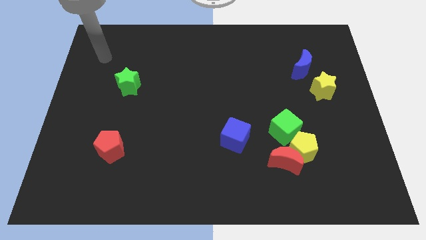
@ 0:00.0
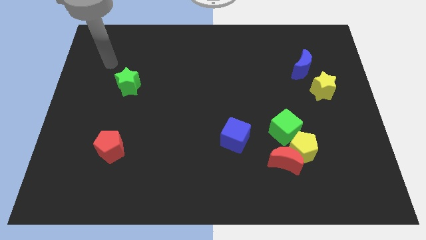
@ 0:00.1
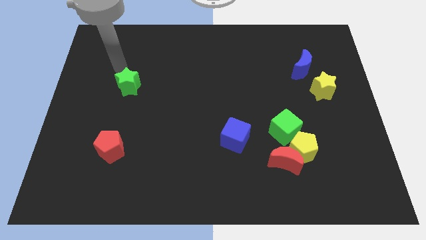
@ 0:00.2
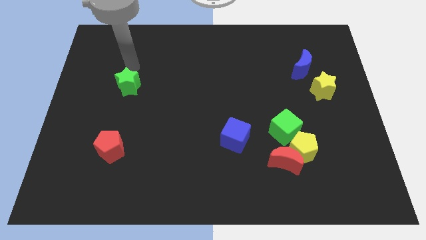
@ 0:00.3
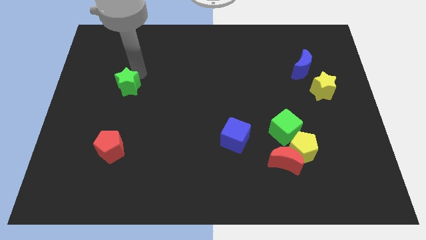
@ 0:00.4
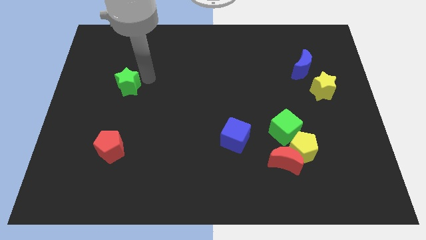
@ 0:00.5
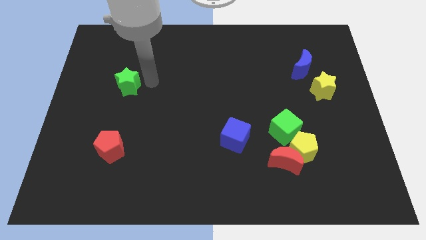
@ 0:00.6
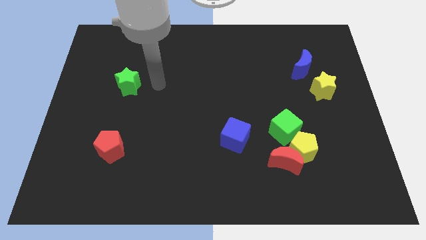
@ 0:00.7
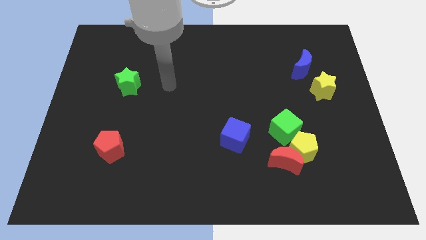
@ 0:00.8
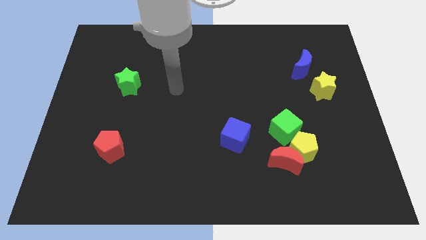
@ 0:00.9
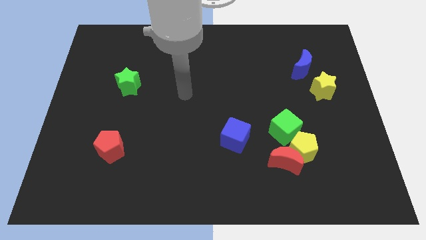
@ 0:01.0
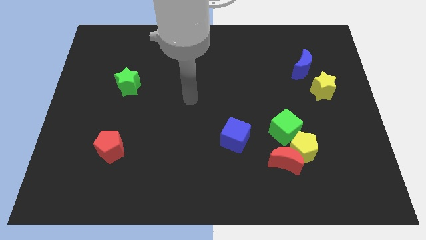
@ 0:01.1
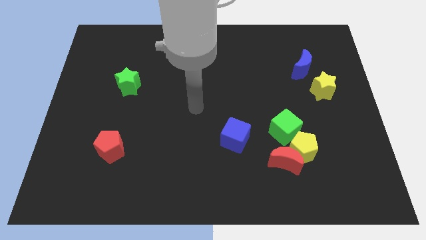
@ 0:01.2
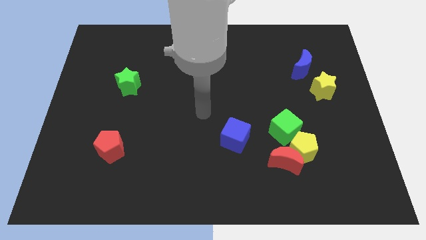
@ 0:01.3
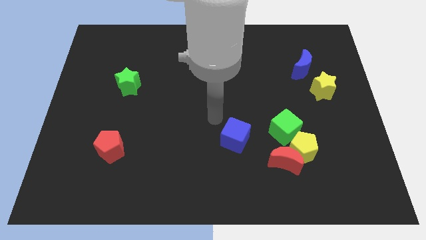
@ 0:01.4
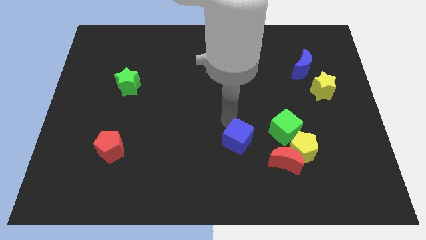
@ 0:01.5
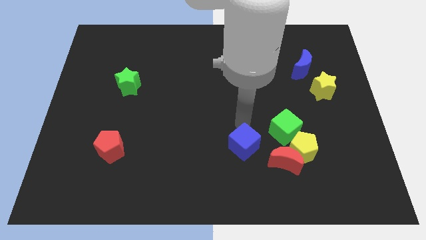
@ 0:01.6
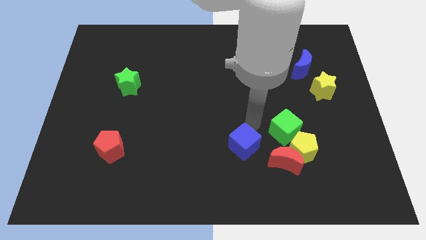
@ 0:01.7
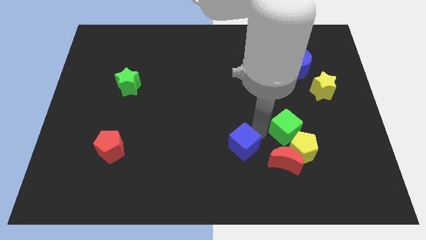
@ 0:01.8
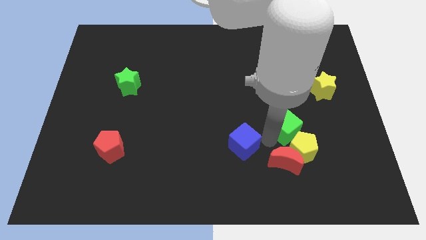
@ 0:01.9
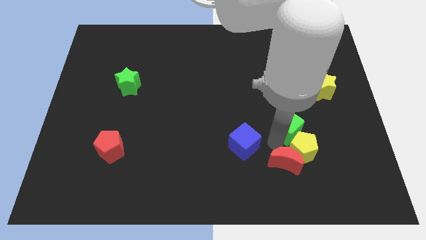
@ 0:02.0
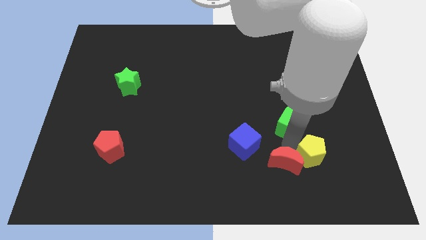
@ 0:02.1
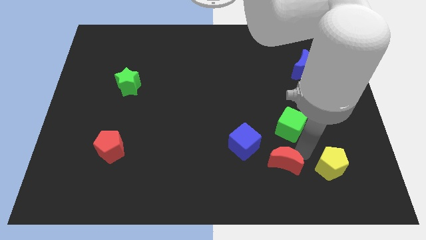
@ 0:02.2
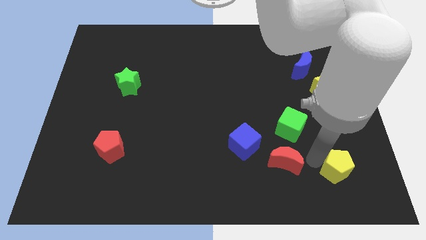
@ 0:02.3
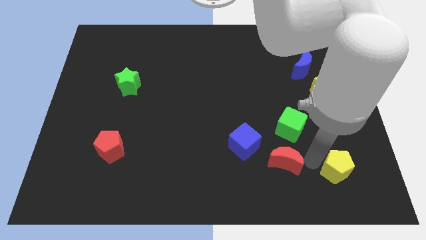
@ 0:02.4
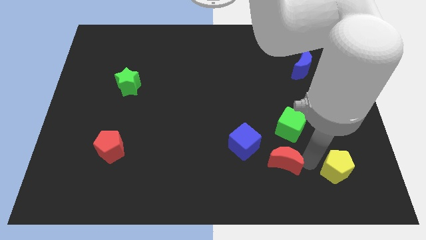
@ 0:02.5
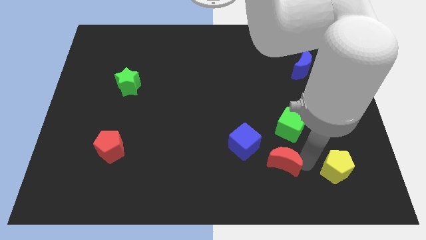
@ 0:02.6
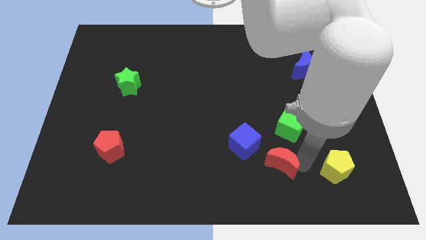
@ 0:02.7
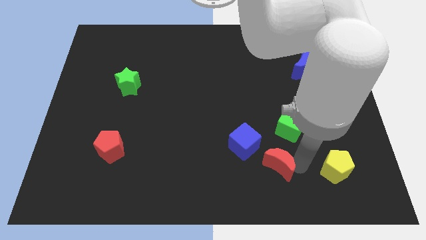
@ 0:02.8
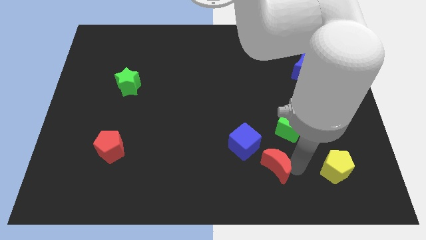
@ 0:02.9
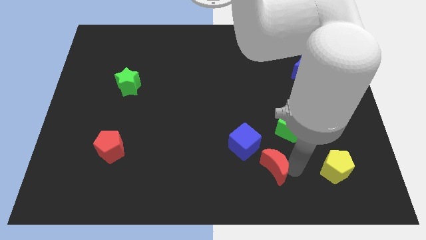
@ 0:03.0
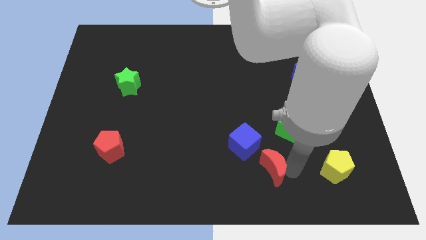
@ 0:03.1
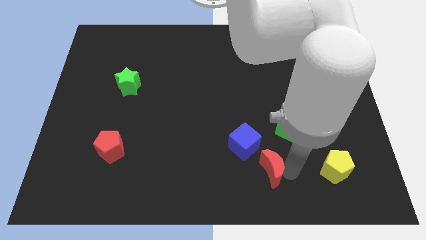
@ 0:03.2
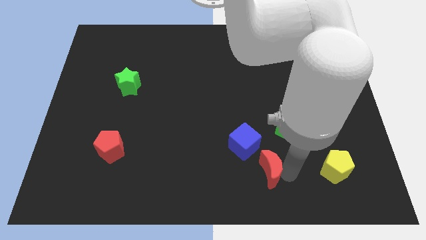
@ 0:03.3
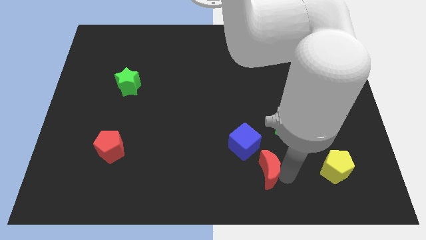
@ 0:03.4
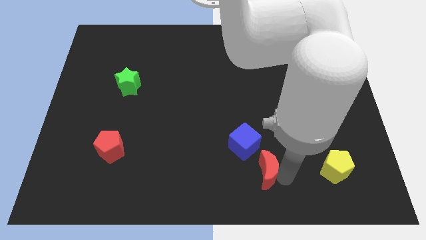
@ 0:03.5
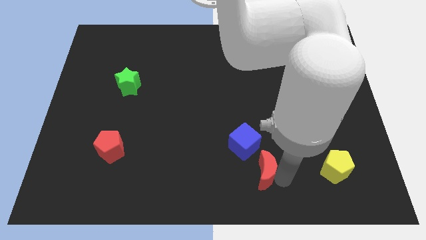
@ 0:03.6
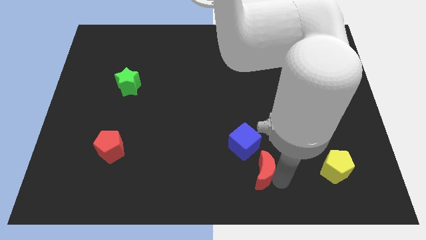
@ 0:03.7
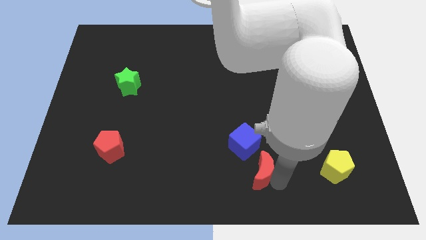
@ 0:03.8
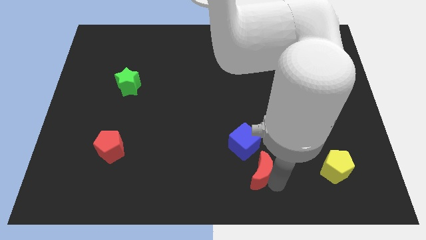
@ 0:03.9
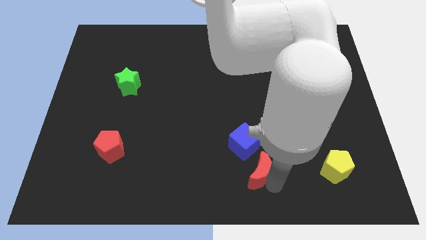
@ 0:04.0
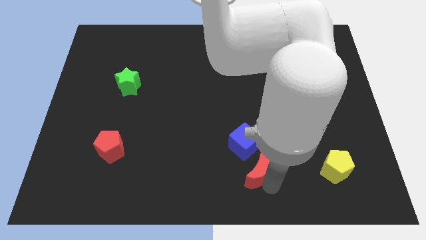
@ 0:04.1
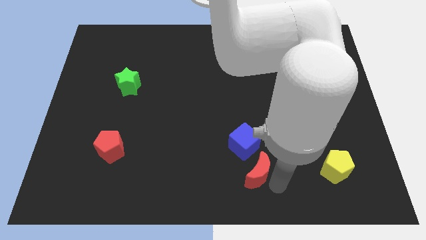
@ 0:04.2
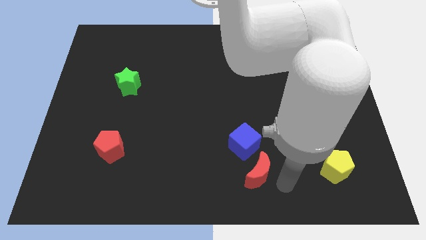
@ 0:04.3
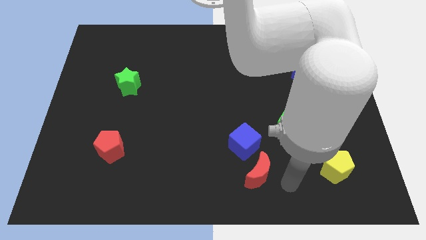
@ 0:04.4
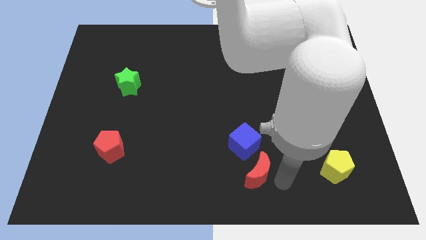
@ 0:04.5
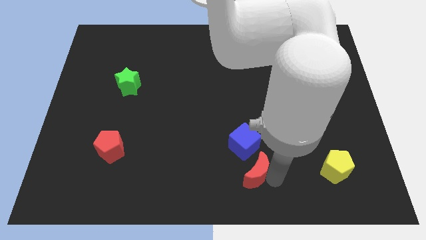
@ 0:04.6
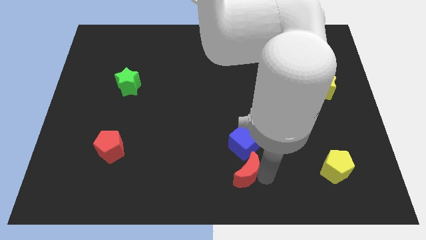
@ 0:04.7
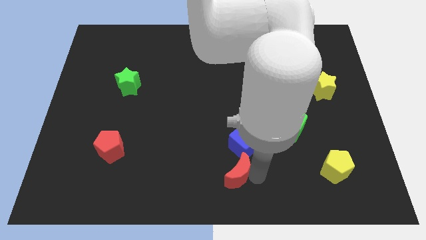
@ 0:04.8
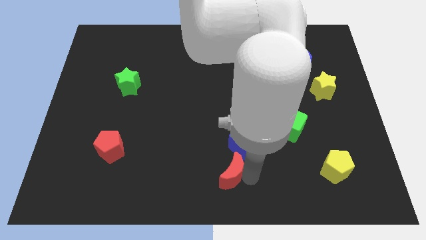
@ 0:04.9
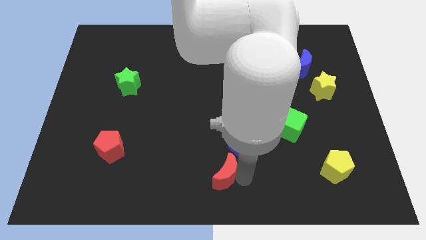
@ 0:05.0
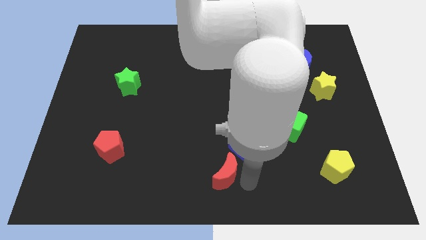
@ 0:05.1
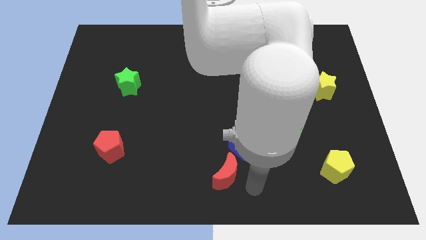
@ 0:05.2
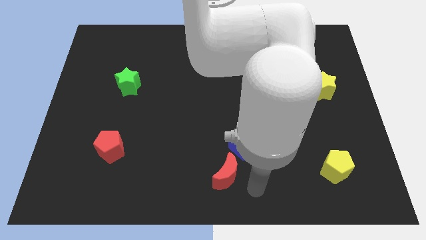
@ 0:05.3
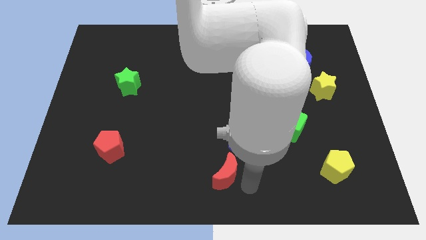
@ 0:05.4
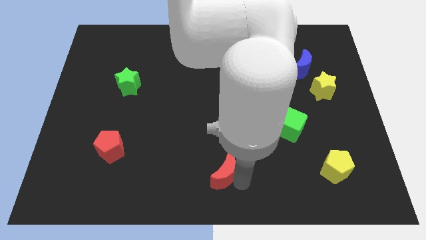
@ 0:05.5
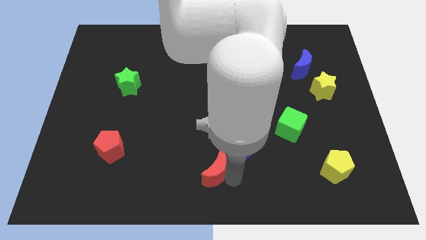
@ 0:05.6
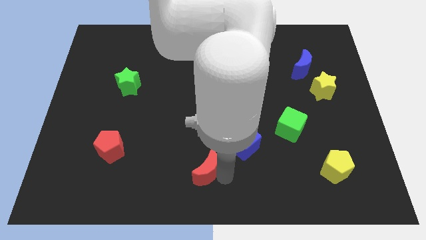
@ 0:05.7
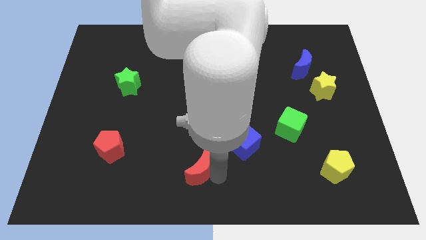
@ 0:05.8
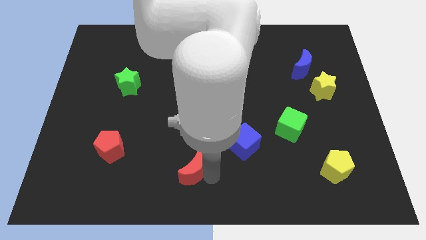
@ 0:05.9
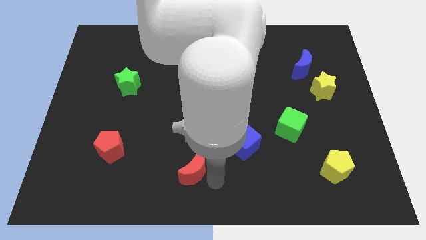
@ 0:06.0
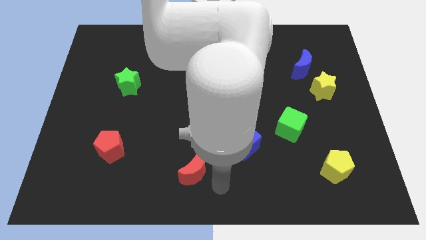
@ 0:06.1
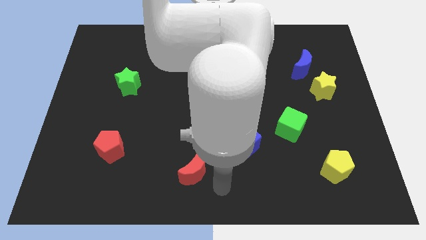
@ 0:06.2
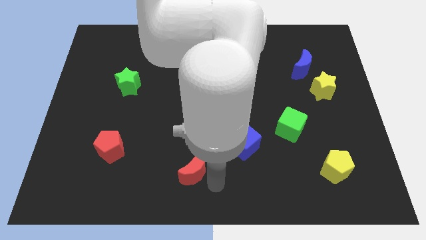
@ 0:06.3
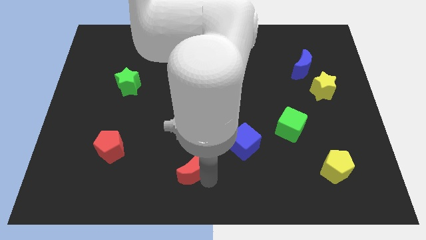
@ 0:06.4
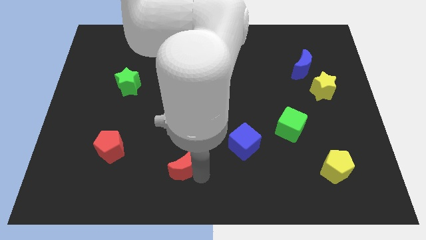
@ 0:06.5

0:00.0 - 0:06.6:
push the red moon left

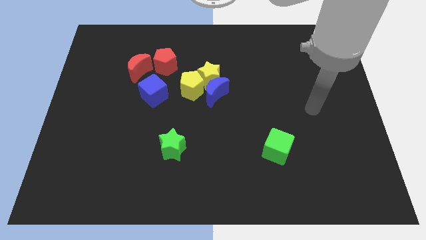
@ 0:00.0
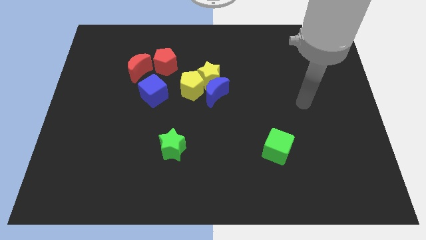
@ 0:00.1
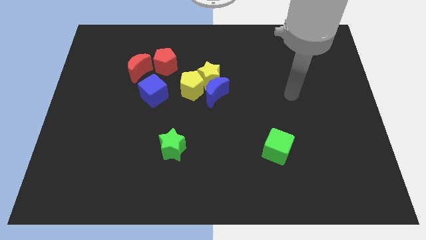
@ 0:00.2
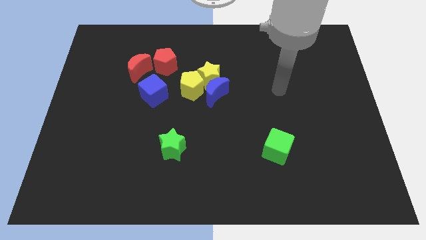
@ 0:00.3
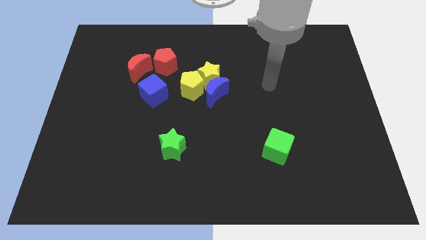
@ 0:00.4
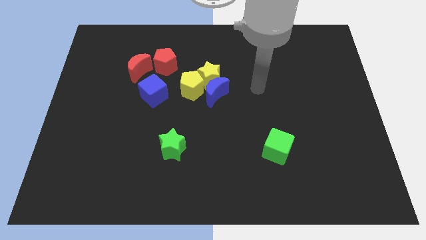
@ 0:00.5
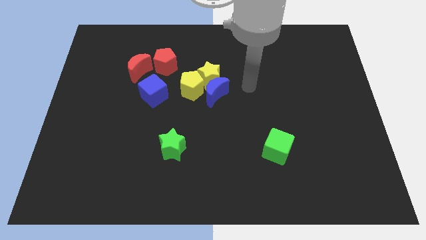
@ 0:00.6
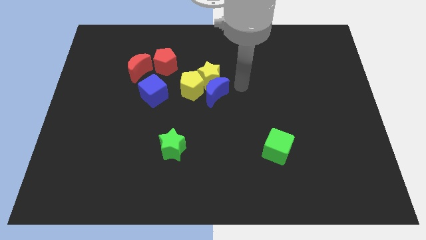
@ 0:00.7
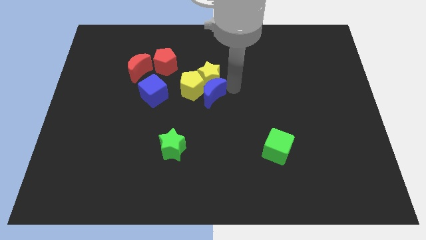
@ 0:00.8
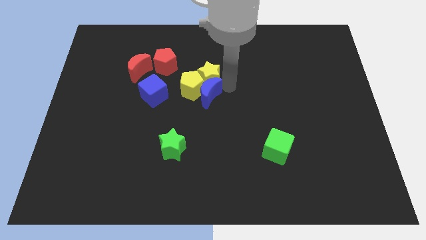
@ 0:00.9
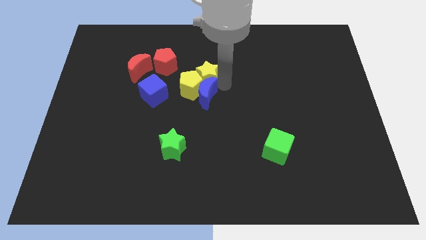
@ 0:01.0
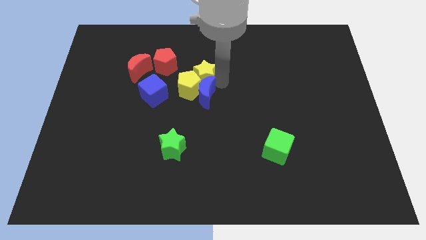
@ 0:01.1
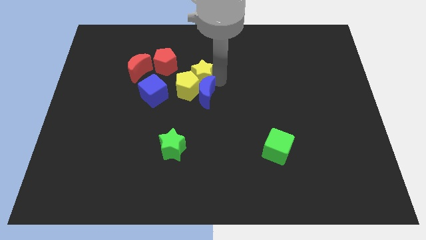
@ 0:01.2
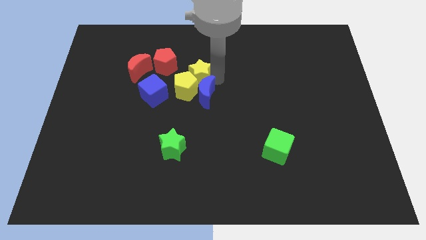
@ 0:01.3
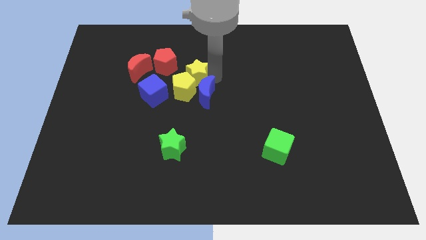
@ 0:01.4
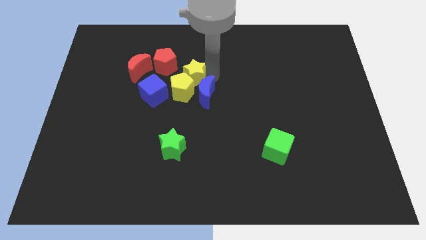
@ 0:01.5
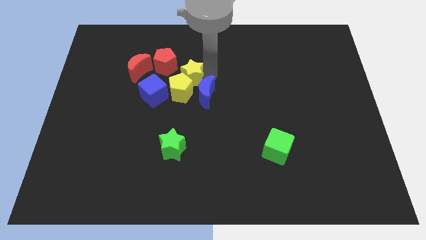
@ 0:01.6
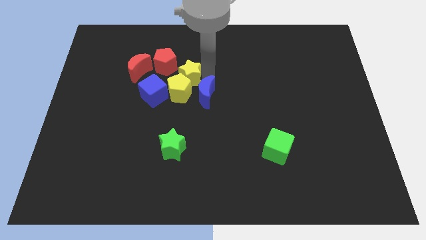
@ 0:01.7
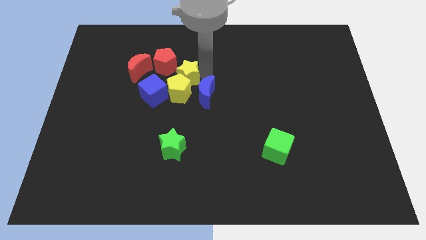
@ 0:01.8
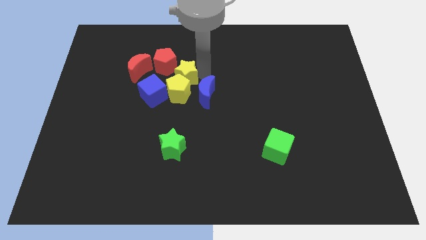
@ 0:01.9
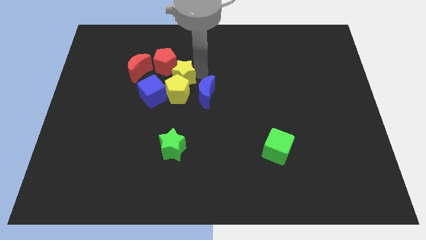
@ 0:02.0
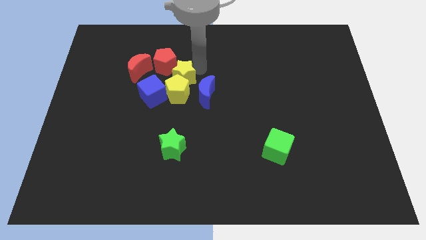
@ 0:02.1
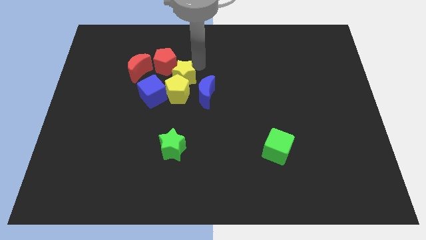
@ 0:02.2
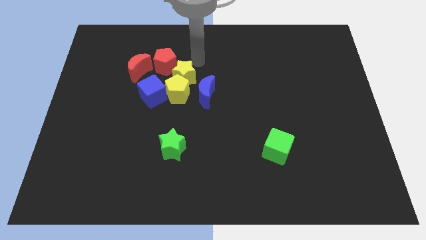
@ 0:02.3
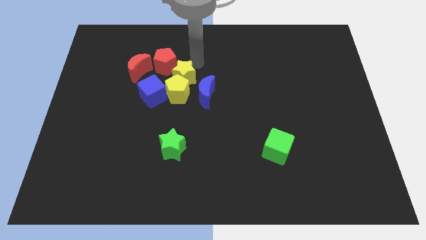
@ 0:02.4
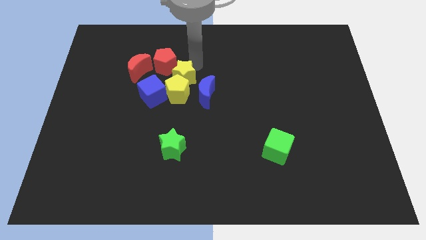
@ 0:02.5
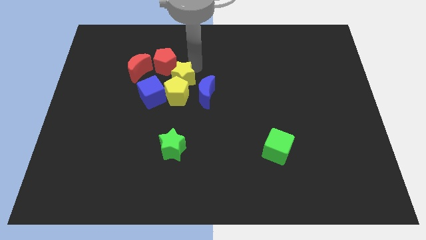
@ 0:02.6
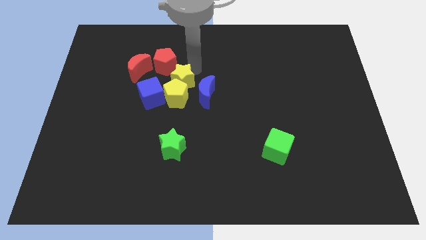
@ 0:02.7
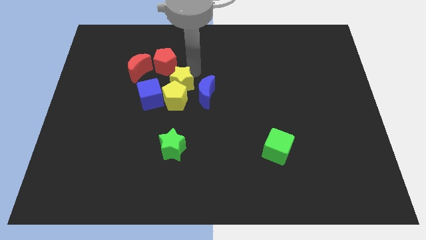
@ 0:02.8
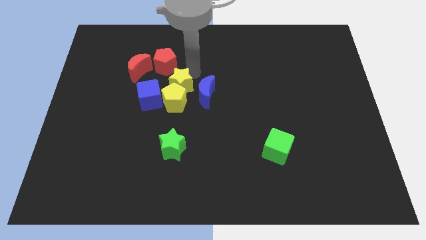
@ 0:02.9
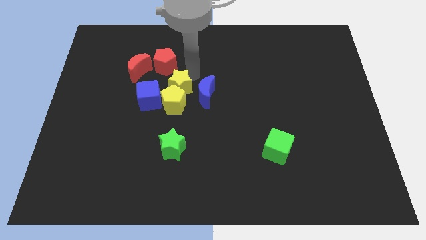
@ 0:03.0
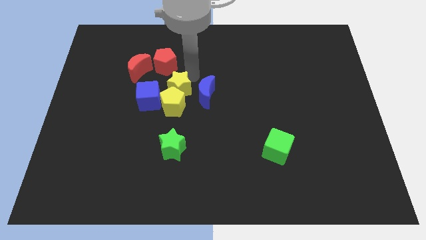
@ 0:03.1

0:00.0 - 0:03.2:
move the yellow star diagonally down and left slightly
